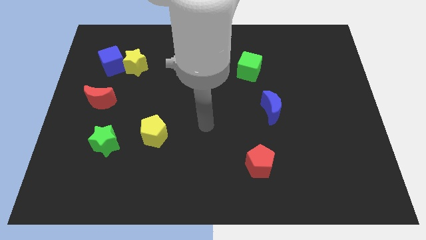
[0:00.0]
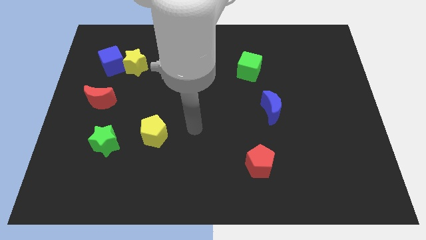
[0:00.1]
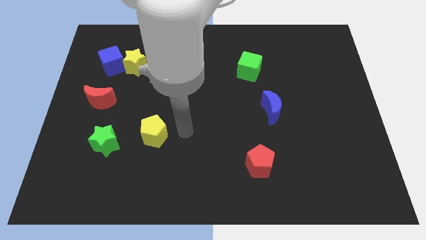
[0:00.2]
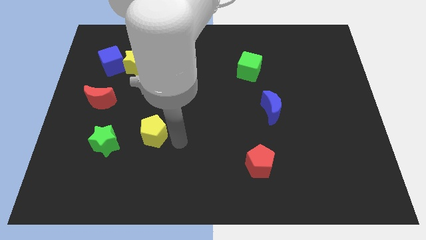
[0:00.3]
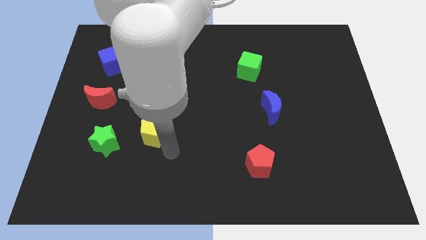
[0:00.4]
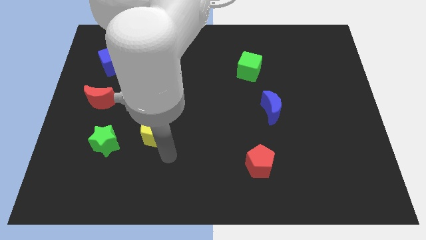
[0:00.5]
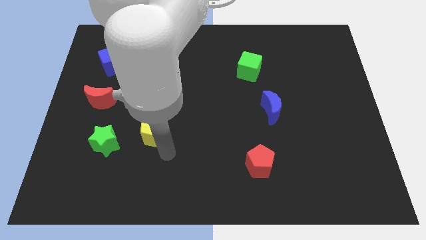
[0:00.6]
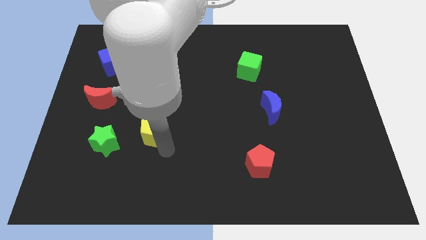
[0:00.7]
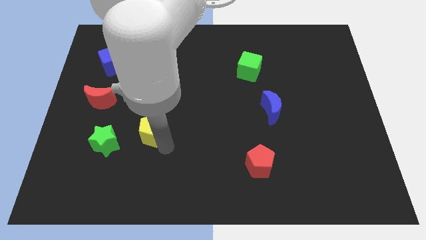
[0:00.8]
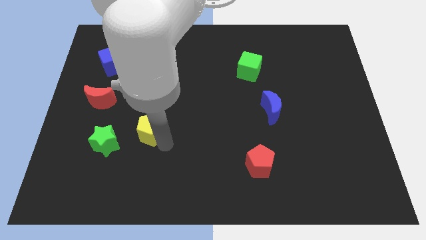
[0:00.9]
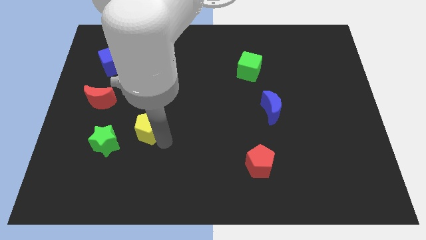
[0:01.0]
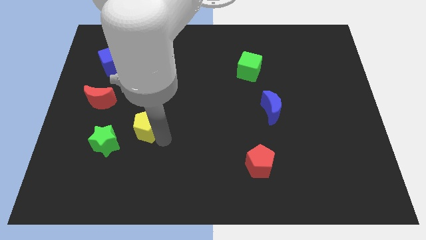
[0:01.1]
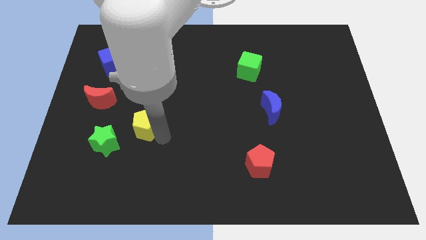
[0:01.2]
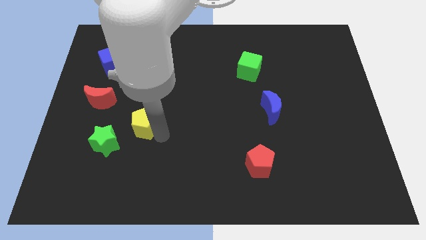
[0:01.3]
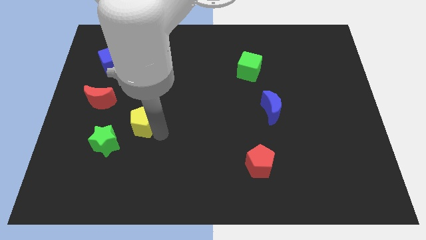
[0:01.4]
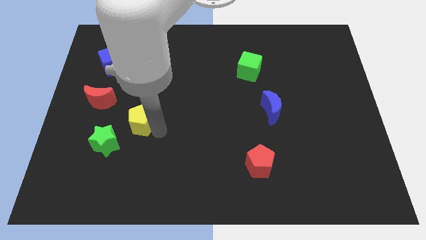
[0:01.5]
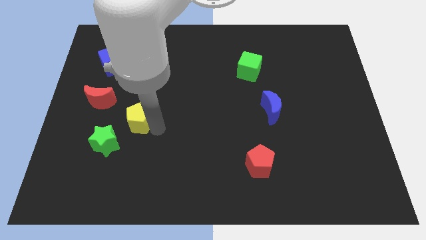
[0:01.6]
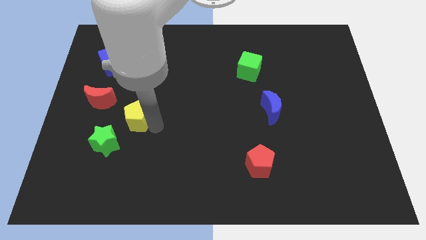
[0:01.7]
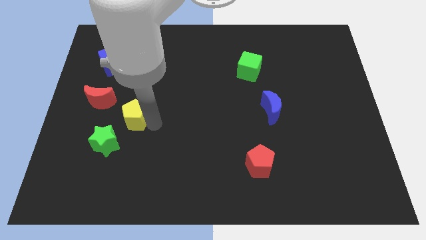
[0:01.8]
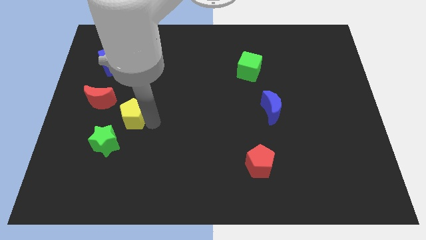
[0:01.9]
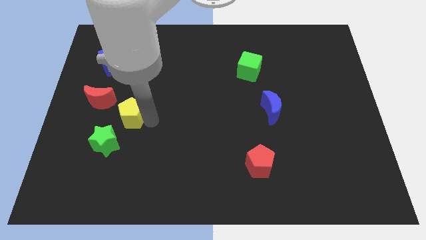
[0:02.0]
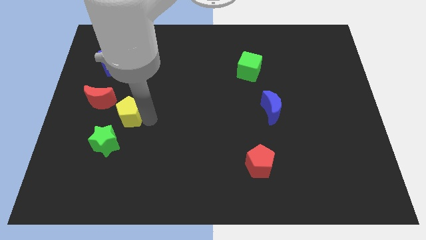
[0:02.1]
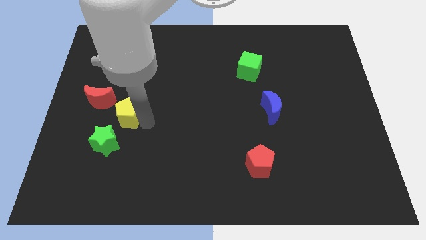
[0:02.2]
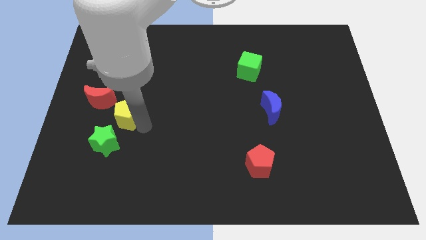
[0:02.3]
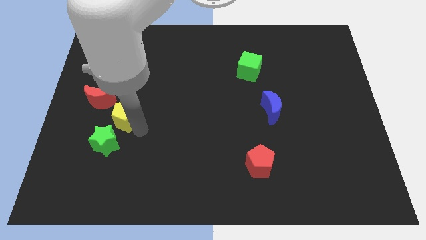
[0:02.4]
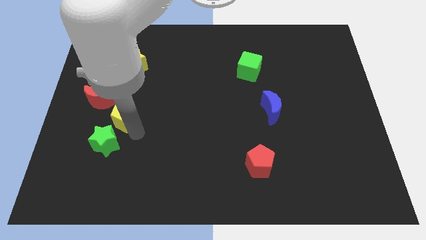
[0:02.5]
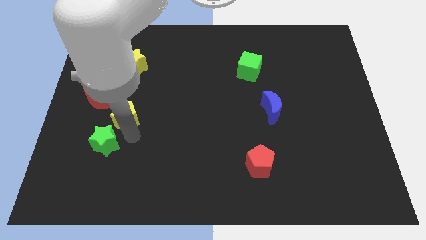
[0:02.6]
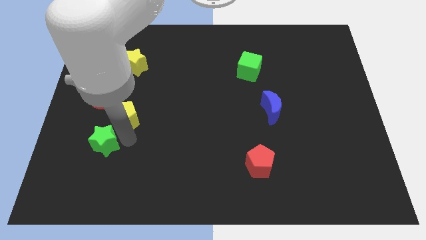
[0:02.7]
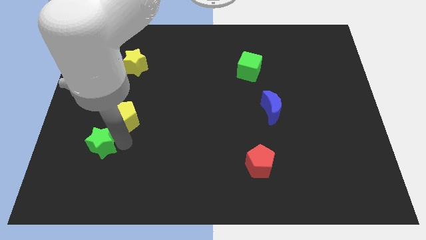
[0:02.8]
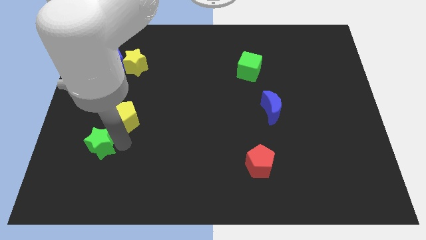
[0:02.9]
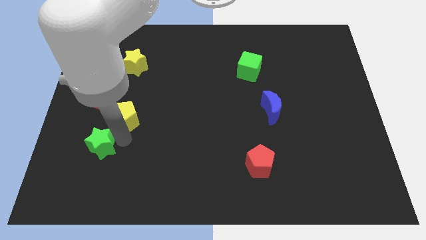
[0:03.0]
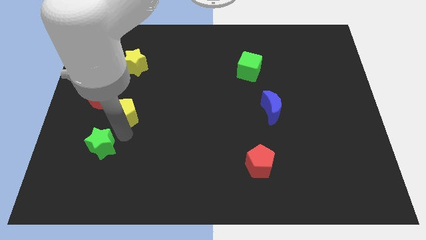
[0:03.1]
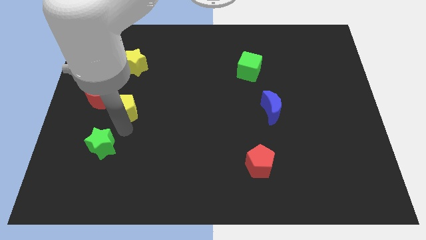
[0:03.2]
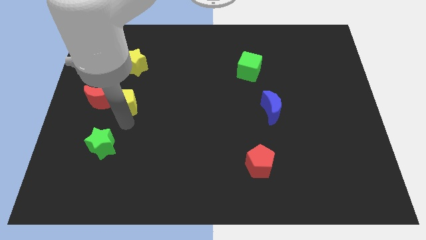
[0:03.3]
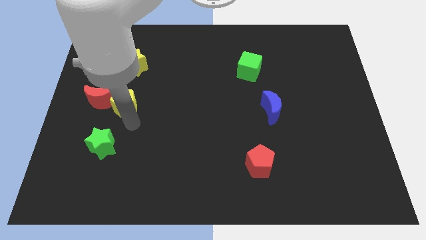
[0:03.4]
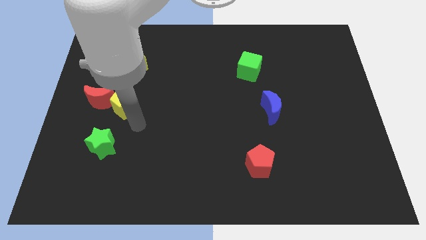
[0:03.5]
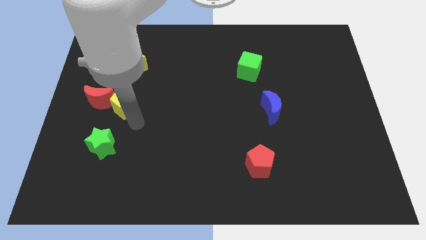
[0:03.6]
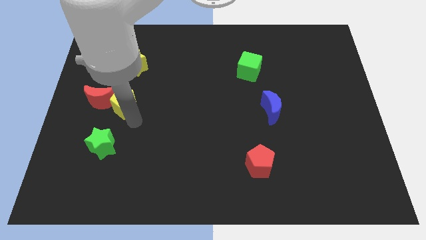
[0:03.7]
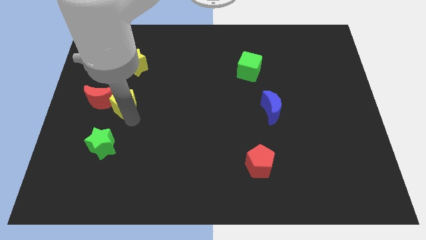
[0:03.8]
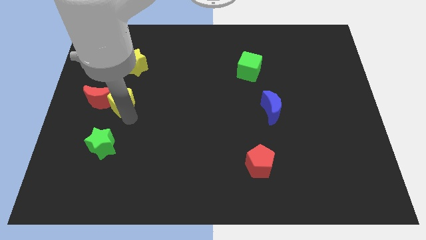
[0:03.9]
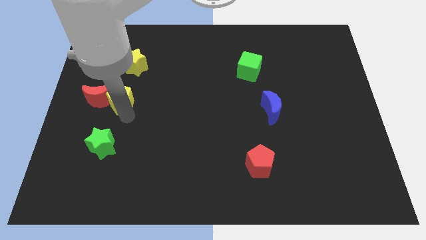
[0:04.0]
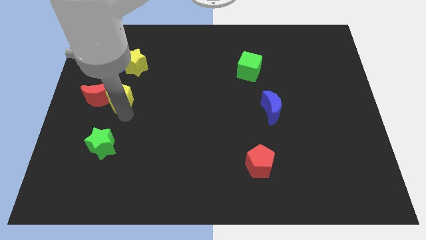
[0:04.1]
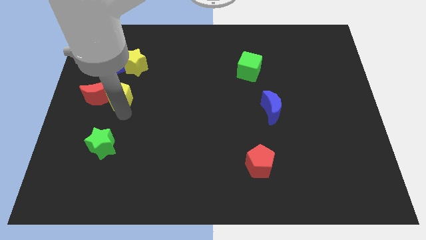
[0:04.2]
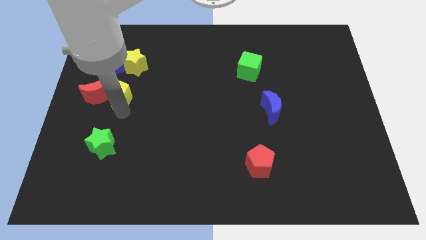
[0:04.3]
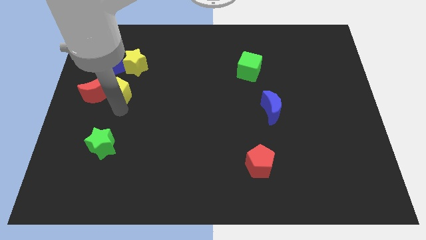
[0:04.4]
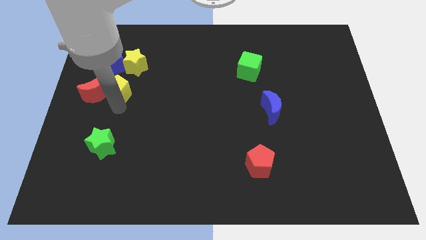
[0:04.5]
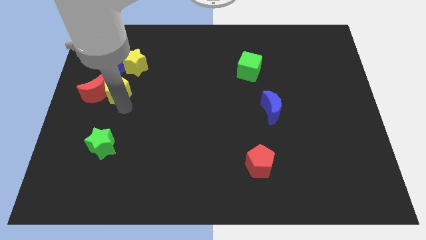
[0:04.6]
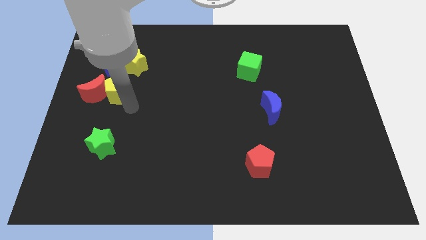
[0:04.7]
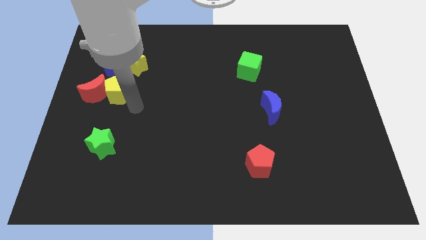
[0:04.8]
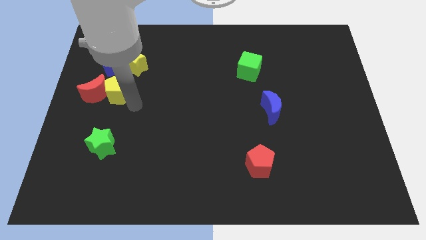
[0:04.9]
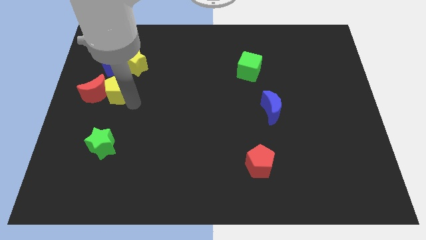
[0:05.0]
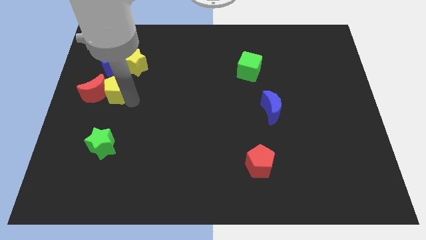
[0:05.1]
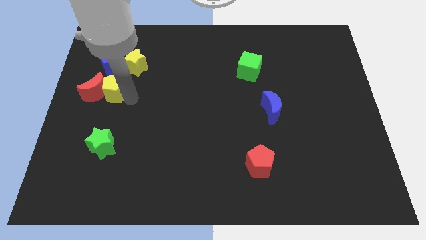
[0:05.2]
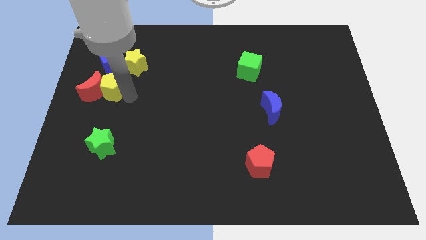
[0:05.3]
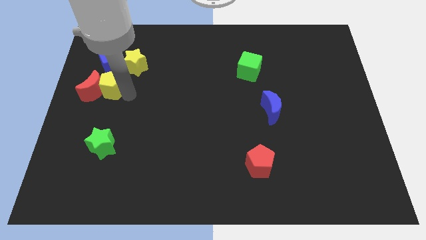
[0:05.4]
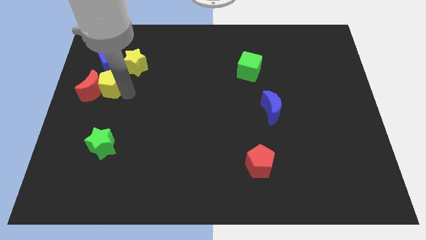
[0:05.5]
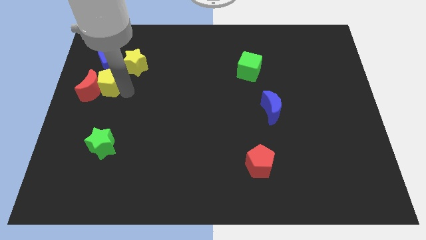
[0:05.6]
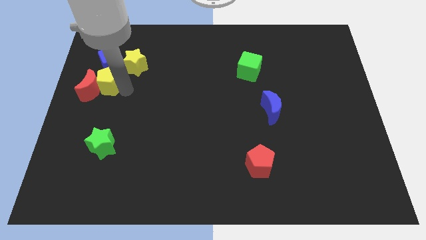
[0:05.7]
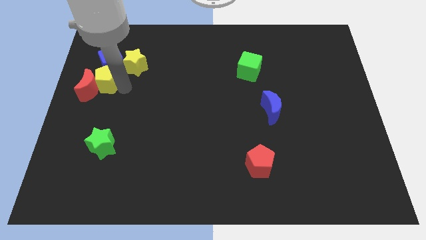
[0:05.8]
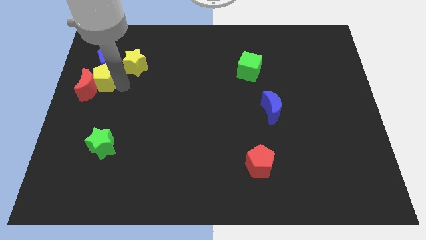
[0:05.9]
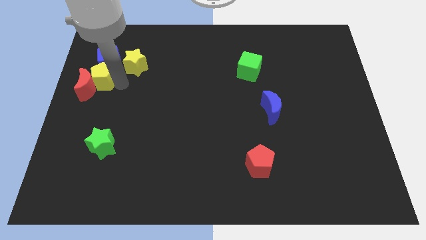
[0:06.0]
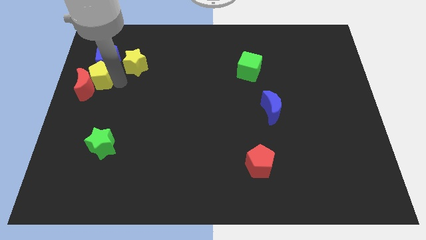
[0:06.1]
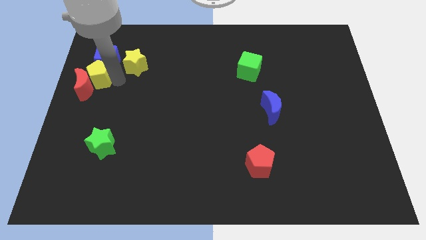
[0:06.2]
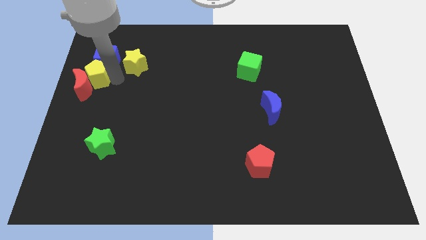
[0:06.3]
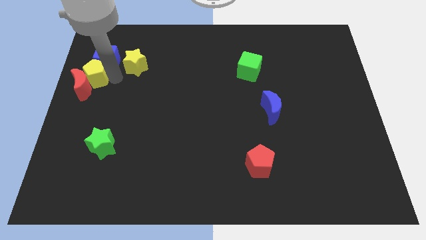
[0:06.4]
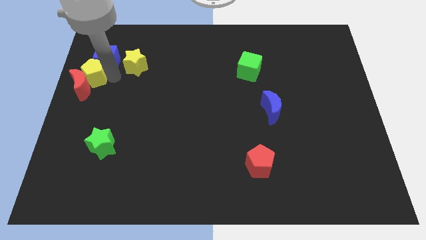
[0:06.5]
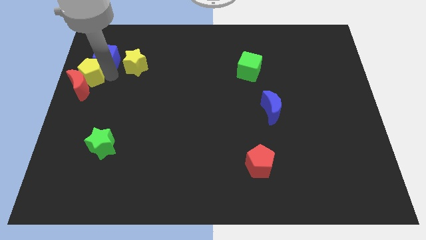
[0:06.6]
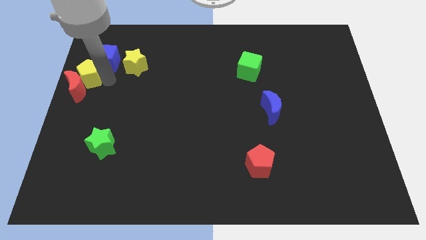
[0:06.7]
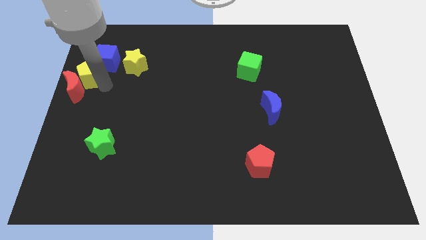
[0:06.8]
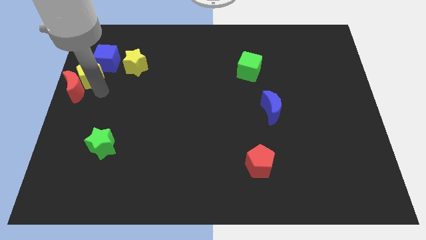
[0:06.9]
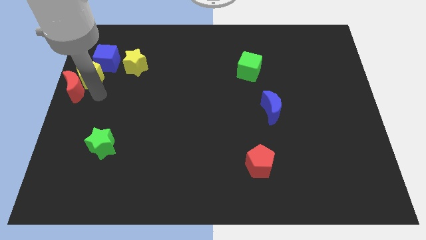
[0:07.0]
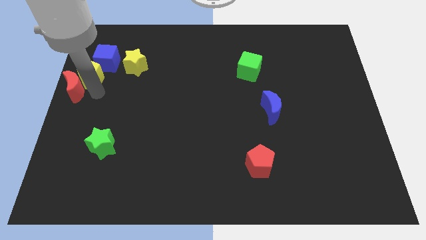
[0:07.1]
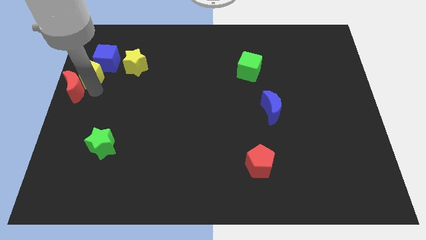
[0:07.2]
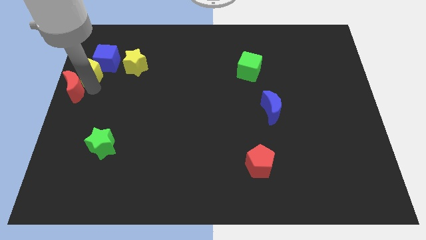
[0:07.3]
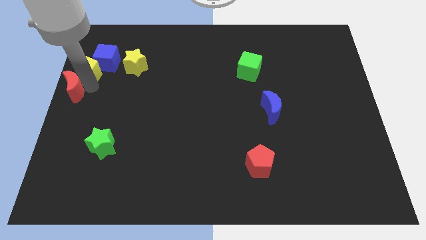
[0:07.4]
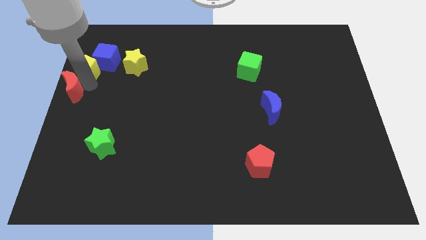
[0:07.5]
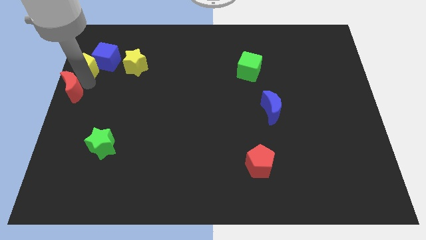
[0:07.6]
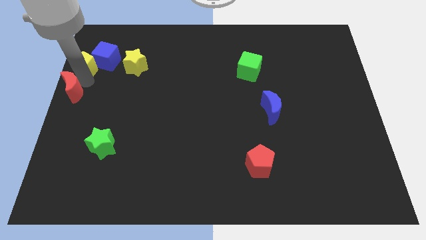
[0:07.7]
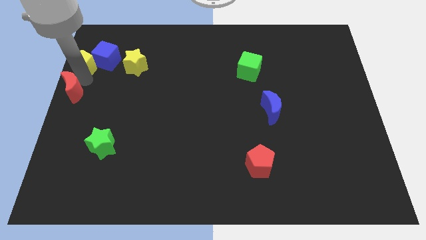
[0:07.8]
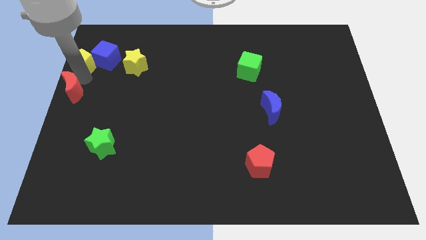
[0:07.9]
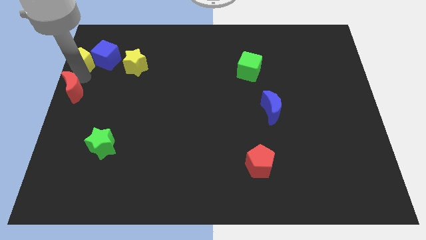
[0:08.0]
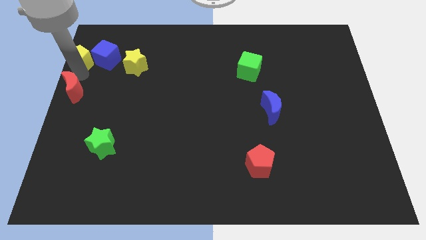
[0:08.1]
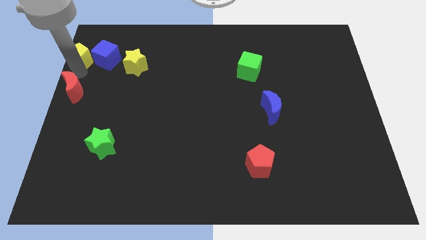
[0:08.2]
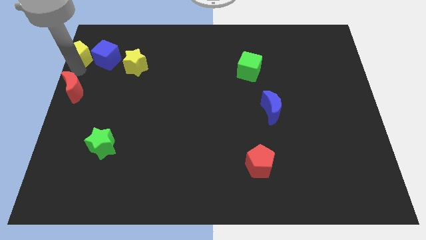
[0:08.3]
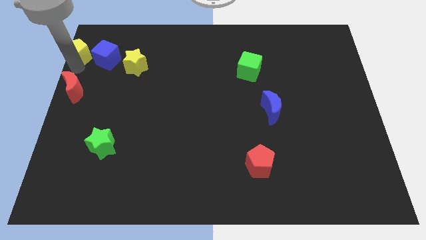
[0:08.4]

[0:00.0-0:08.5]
put the yellow pentagon to the top left corner
